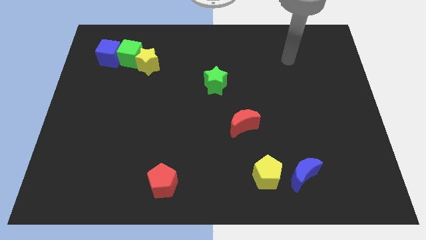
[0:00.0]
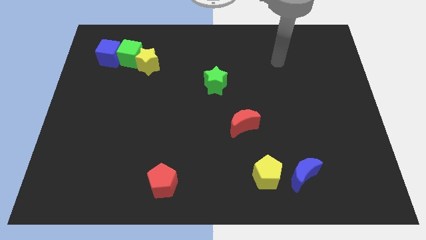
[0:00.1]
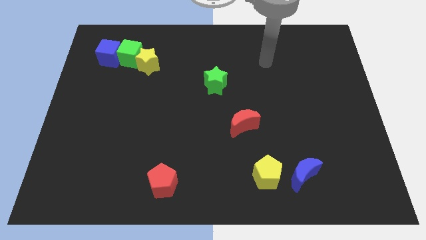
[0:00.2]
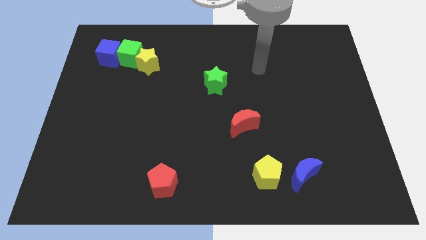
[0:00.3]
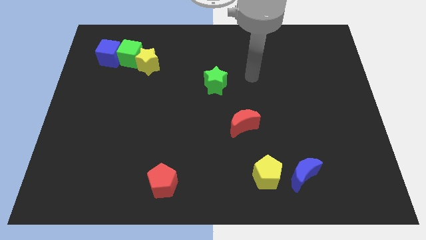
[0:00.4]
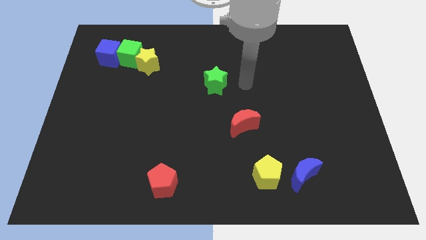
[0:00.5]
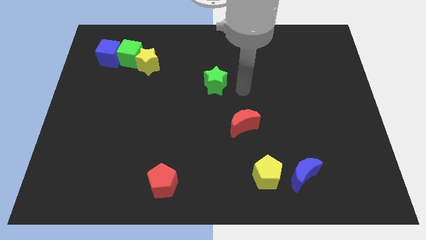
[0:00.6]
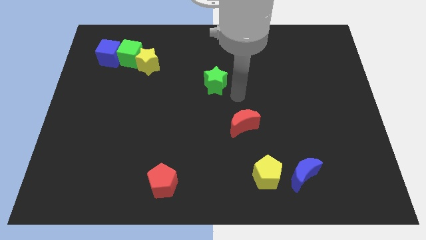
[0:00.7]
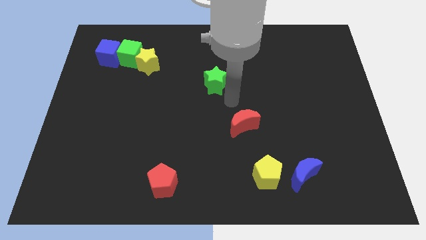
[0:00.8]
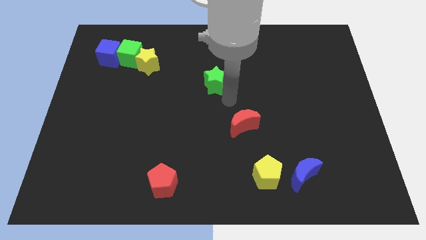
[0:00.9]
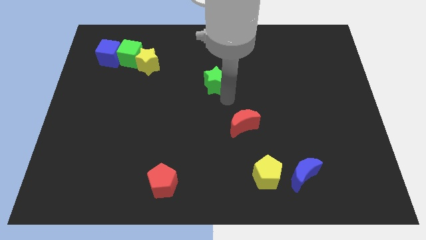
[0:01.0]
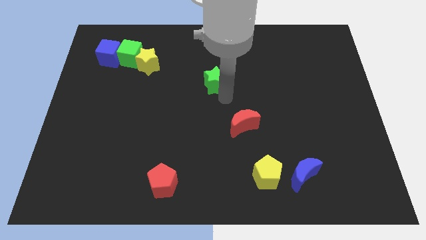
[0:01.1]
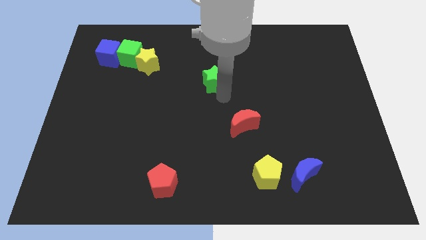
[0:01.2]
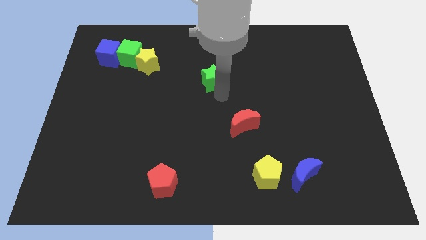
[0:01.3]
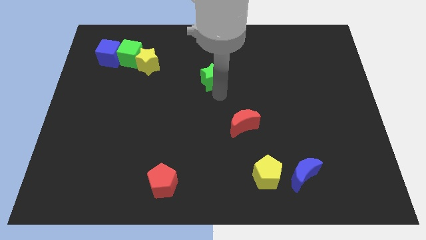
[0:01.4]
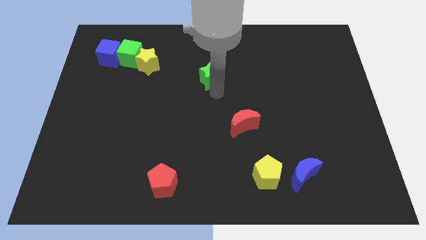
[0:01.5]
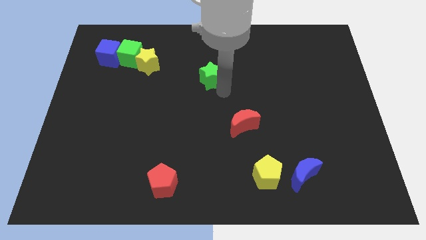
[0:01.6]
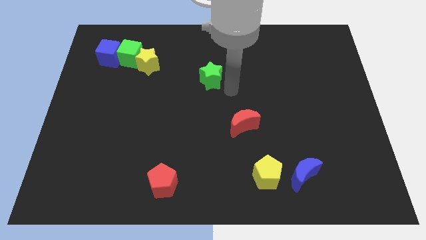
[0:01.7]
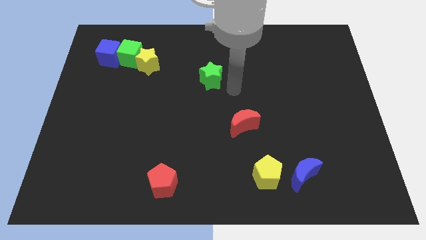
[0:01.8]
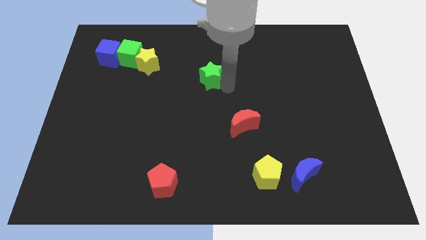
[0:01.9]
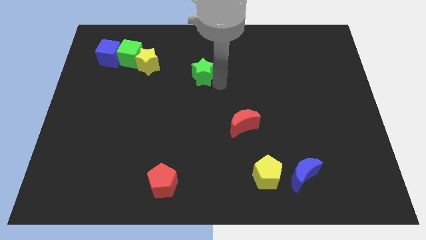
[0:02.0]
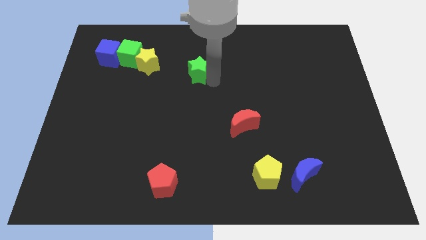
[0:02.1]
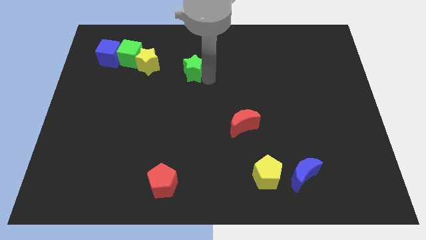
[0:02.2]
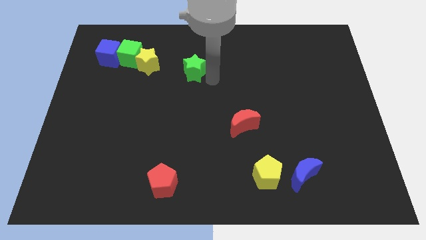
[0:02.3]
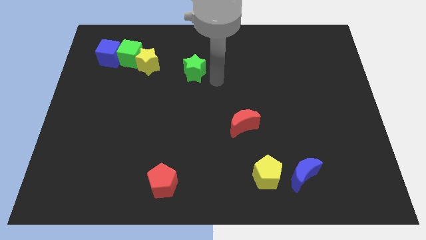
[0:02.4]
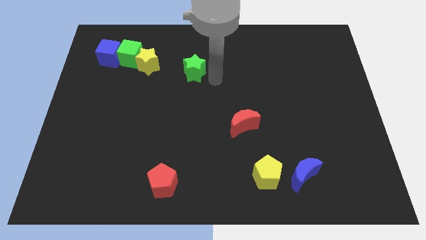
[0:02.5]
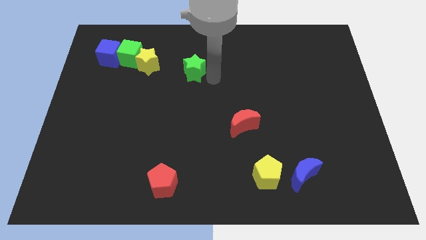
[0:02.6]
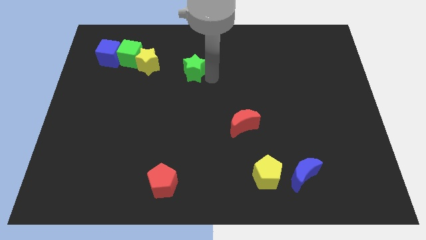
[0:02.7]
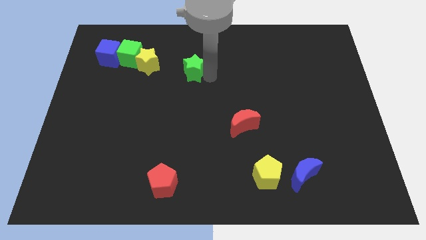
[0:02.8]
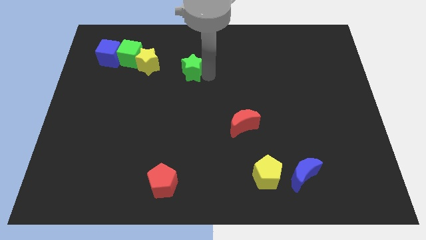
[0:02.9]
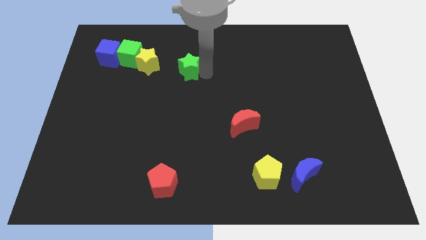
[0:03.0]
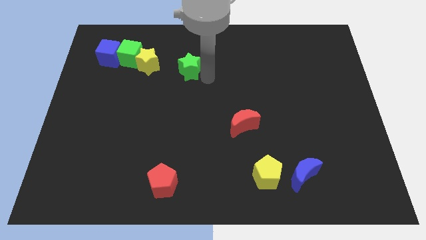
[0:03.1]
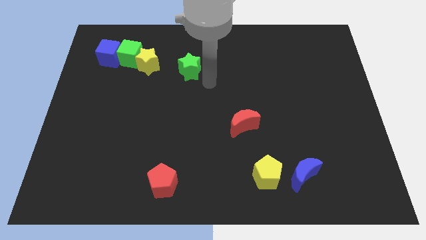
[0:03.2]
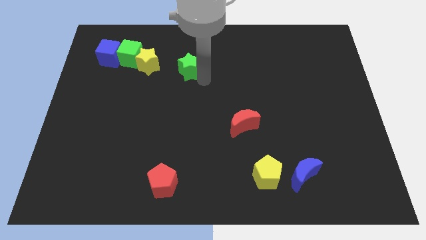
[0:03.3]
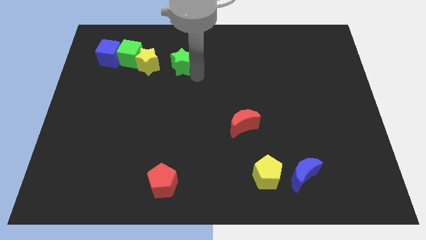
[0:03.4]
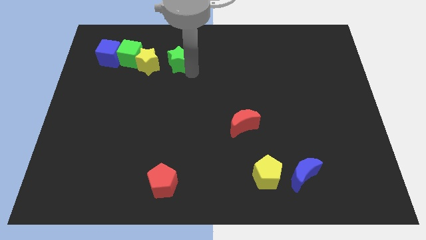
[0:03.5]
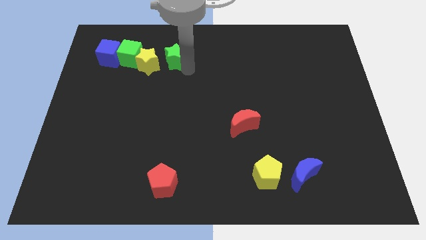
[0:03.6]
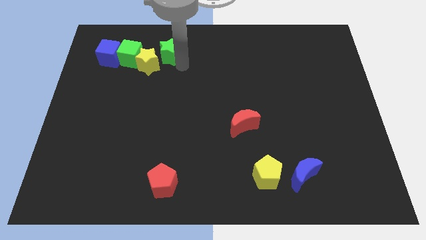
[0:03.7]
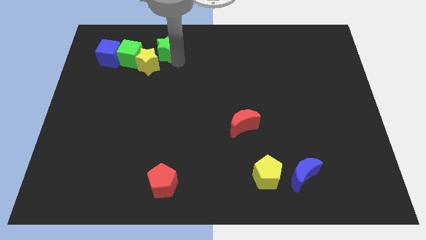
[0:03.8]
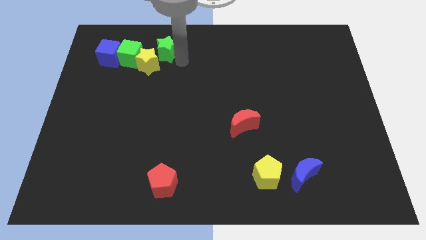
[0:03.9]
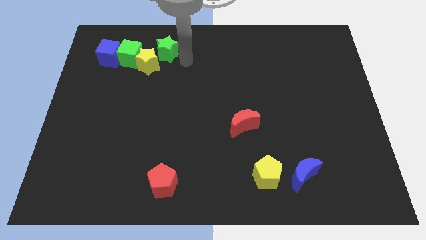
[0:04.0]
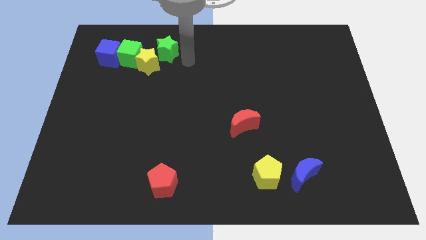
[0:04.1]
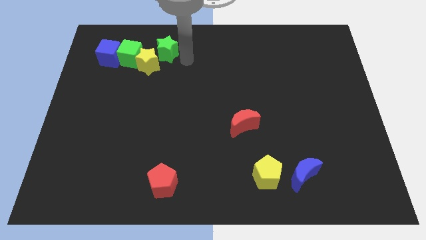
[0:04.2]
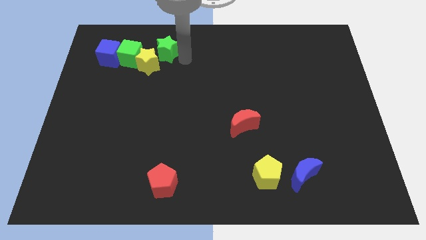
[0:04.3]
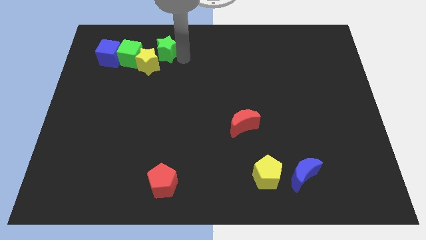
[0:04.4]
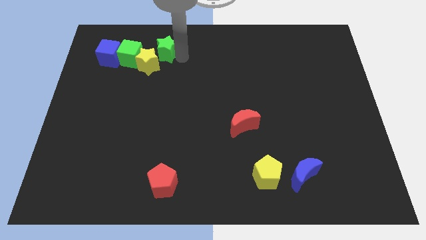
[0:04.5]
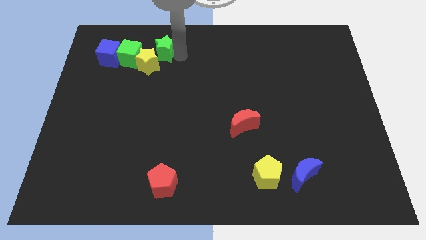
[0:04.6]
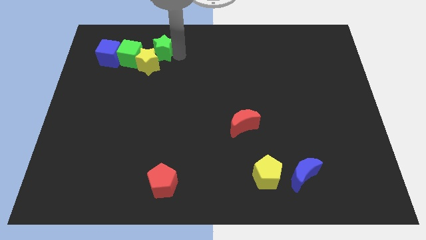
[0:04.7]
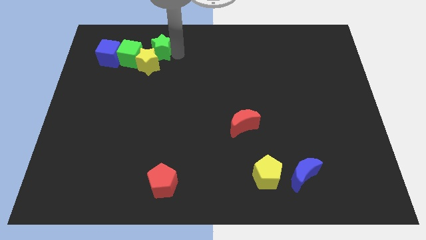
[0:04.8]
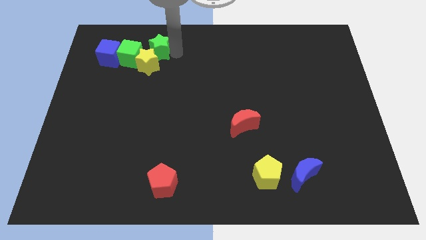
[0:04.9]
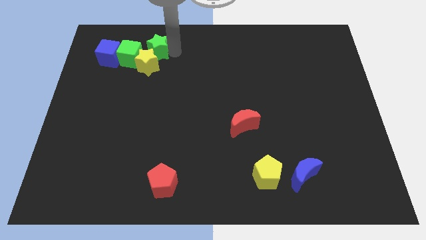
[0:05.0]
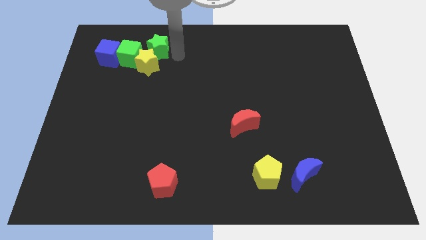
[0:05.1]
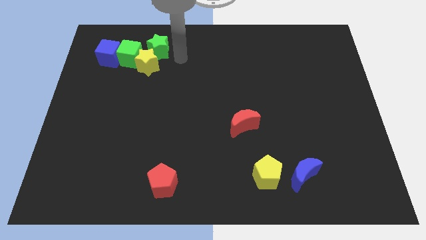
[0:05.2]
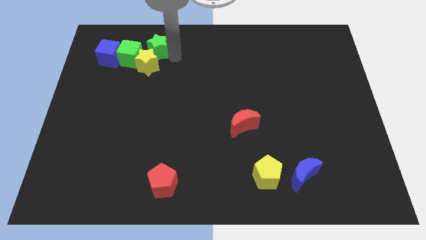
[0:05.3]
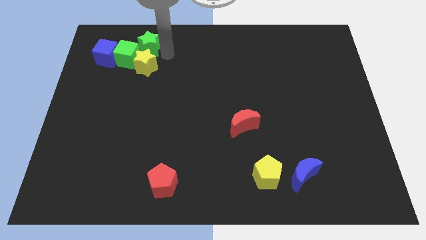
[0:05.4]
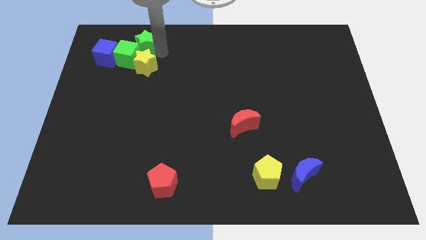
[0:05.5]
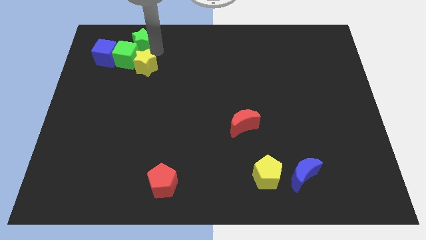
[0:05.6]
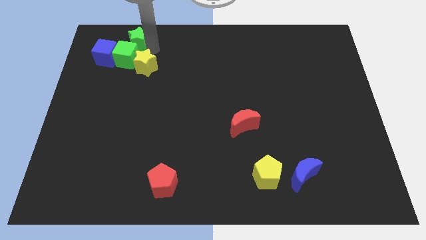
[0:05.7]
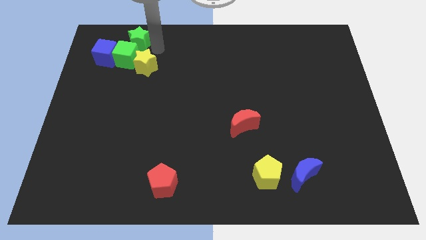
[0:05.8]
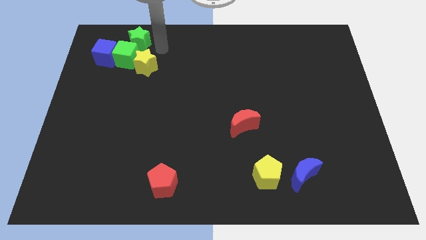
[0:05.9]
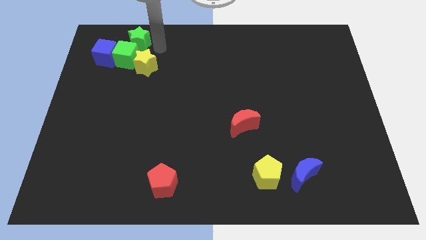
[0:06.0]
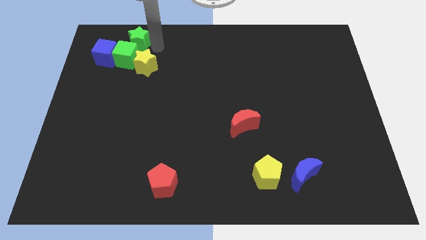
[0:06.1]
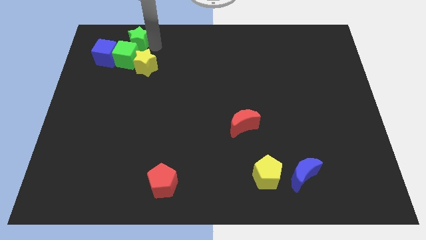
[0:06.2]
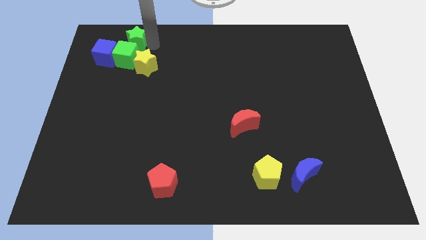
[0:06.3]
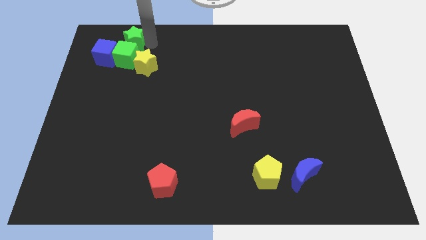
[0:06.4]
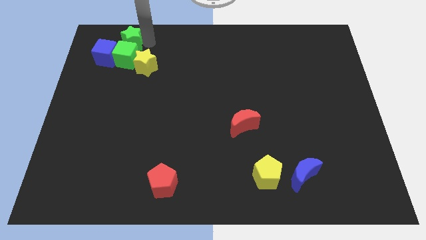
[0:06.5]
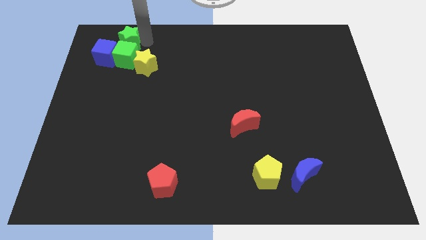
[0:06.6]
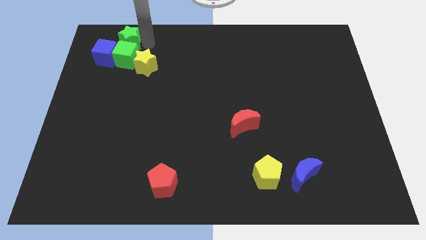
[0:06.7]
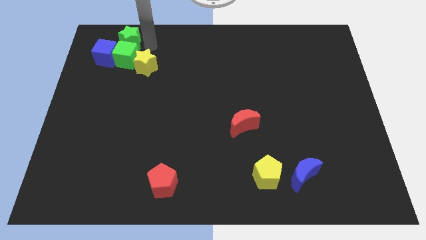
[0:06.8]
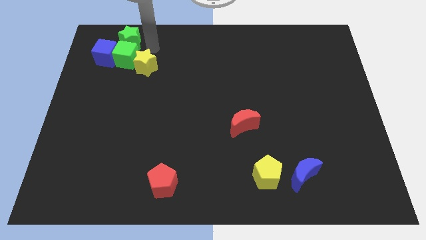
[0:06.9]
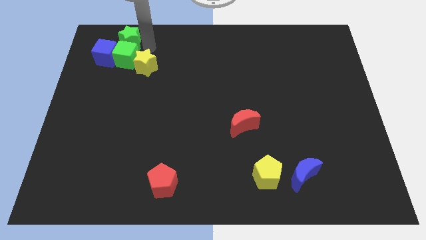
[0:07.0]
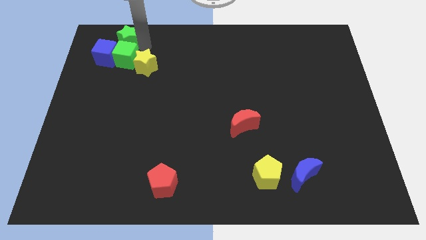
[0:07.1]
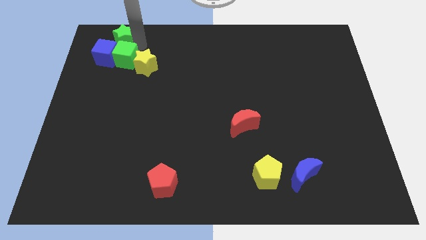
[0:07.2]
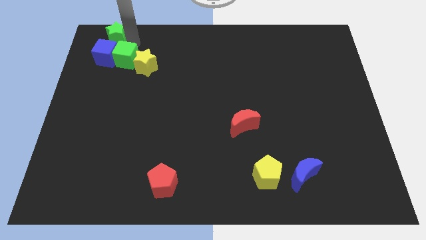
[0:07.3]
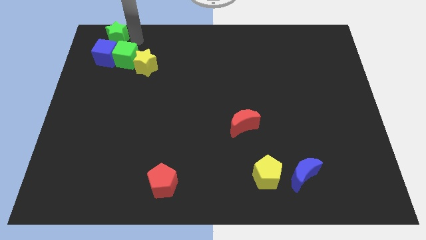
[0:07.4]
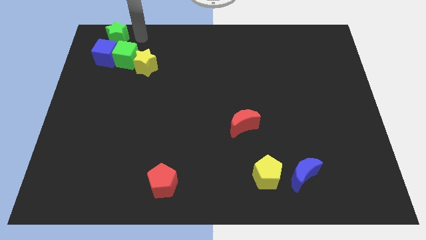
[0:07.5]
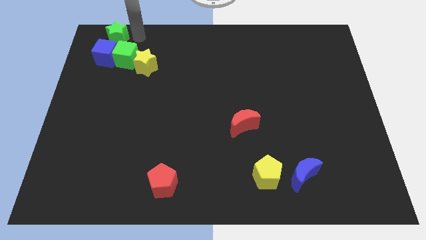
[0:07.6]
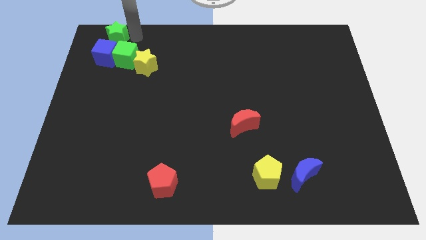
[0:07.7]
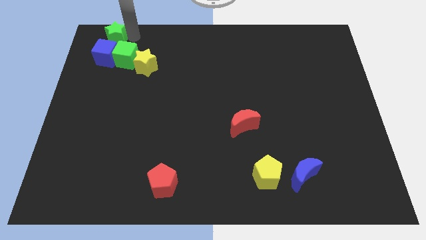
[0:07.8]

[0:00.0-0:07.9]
slide the green star to the top left
